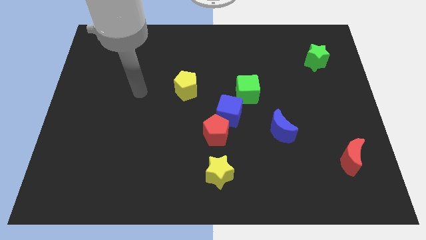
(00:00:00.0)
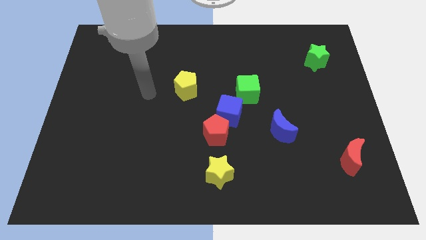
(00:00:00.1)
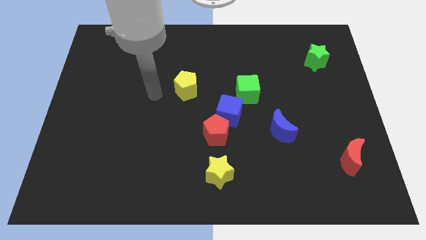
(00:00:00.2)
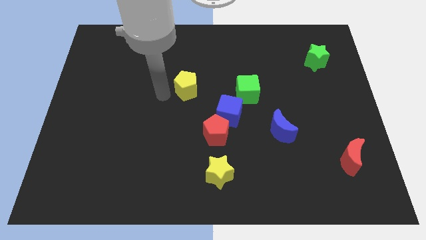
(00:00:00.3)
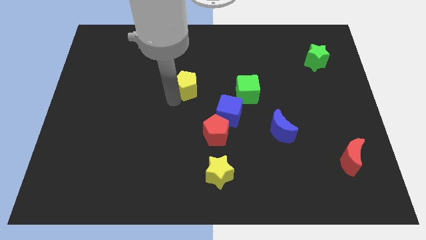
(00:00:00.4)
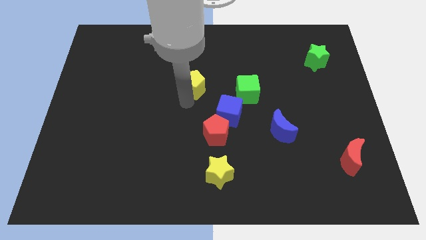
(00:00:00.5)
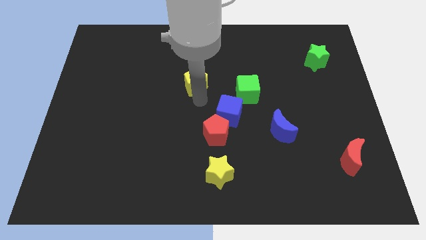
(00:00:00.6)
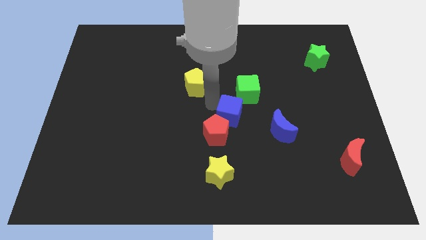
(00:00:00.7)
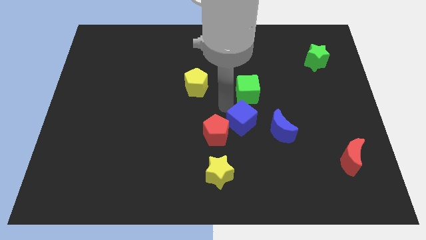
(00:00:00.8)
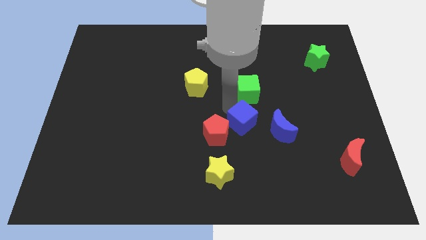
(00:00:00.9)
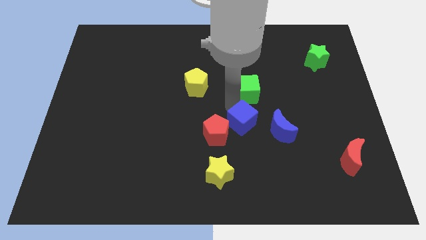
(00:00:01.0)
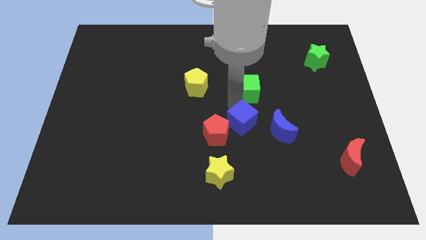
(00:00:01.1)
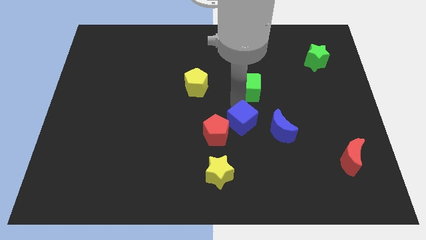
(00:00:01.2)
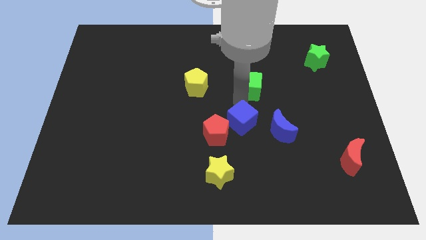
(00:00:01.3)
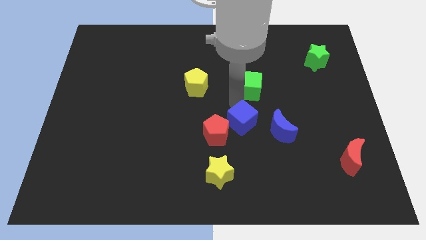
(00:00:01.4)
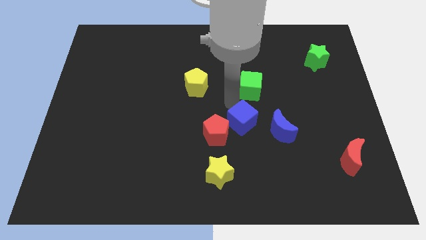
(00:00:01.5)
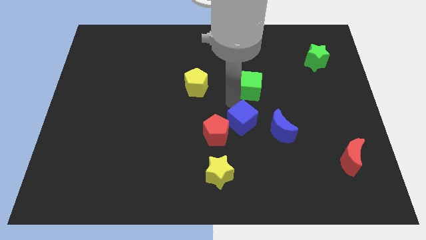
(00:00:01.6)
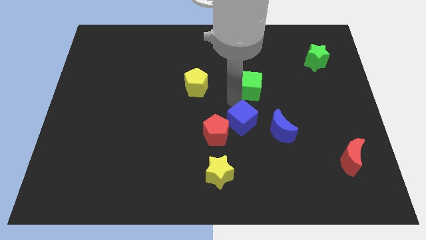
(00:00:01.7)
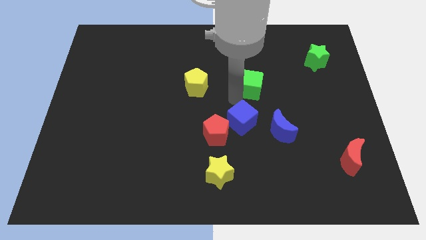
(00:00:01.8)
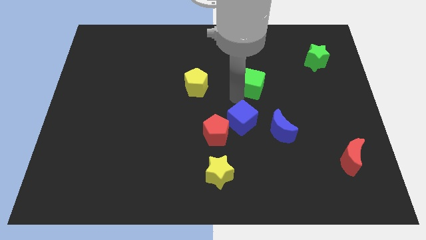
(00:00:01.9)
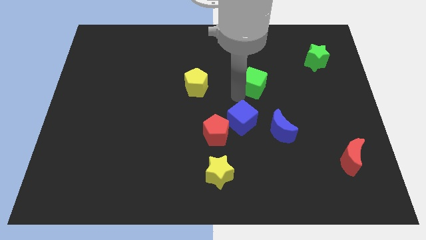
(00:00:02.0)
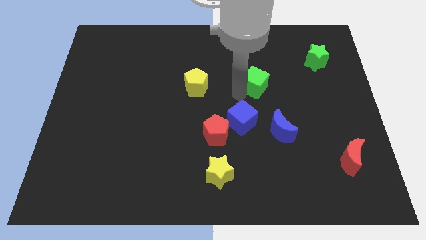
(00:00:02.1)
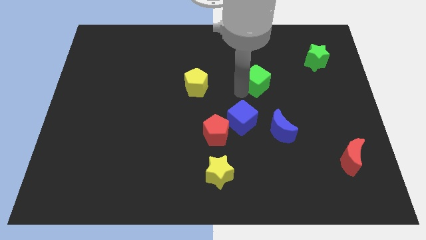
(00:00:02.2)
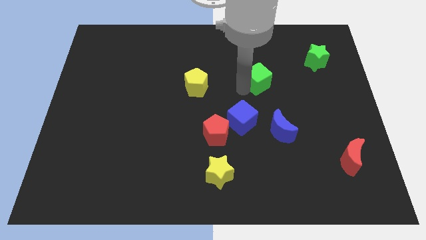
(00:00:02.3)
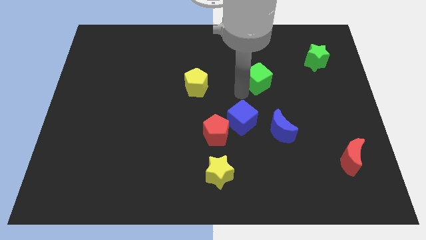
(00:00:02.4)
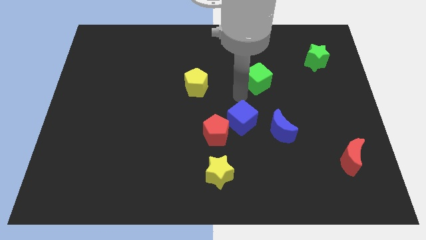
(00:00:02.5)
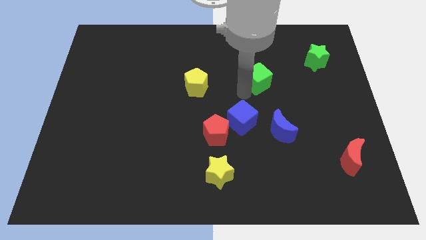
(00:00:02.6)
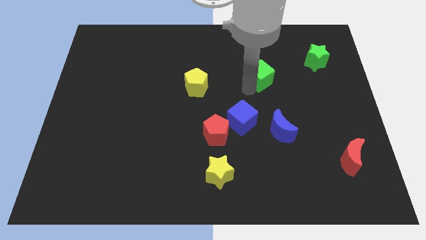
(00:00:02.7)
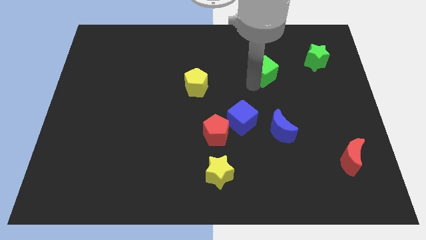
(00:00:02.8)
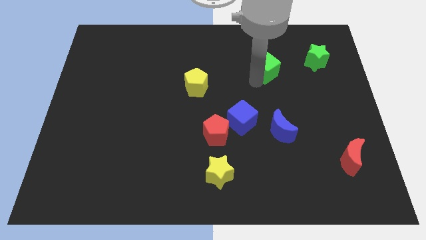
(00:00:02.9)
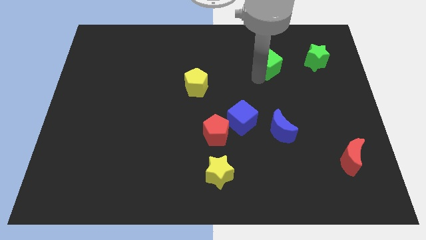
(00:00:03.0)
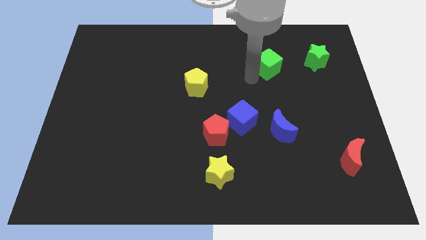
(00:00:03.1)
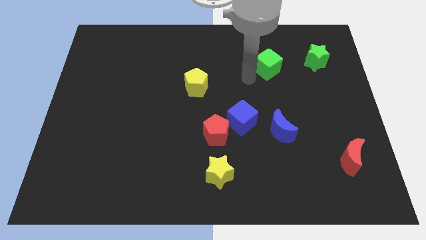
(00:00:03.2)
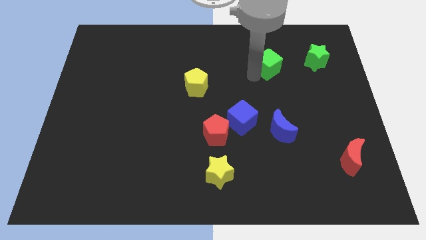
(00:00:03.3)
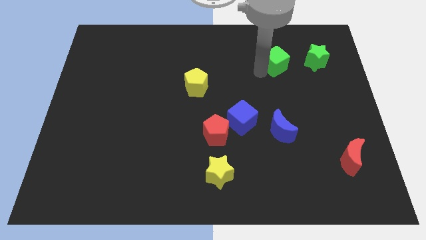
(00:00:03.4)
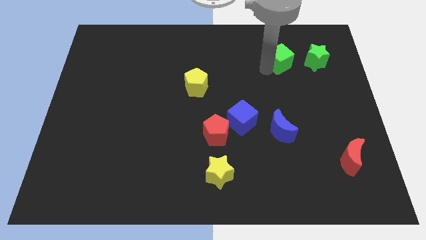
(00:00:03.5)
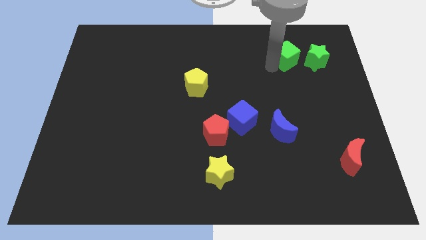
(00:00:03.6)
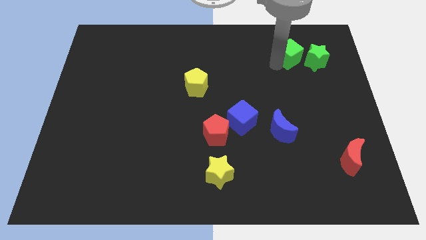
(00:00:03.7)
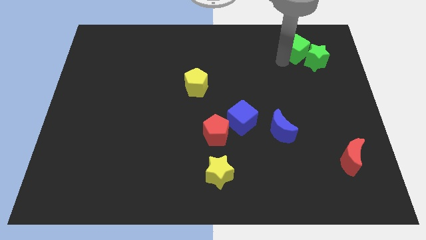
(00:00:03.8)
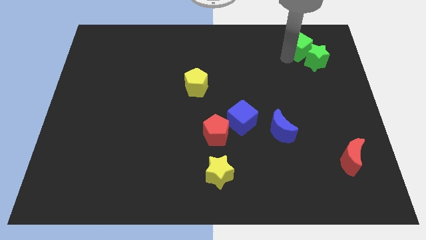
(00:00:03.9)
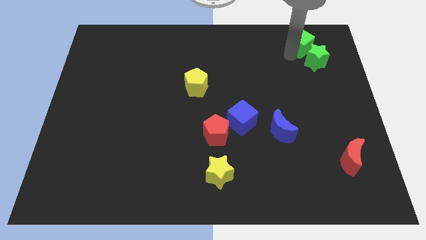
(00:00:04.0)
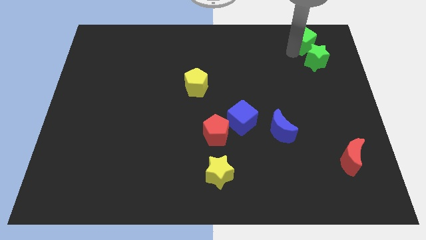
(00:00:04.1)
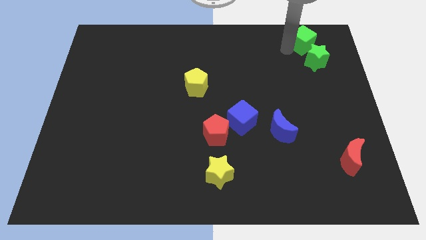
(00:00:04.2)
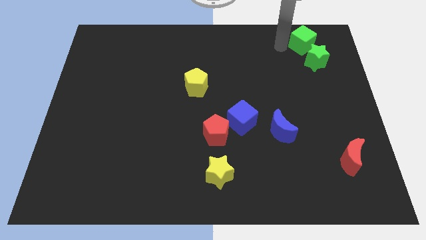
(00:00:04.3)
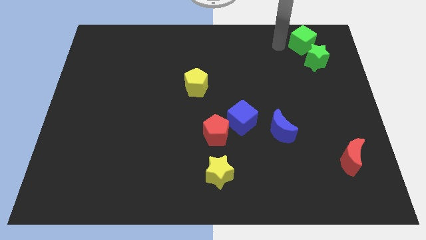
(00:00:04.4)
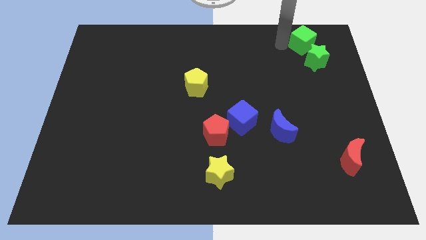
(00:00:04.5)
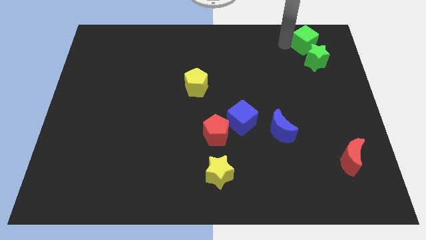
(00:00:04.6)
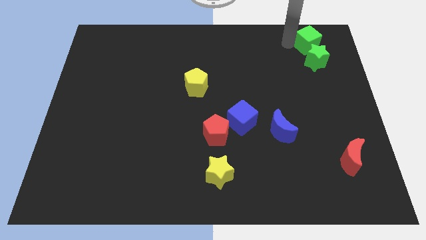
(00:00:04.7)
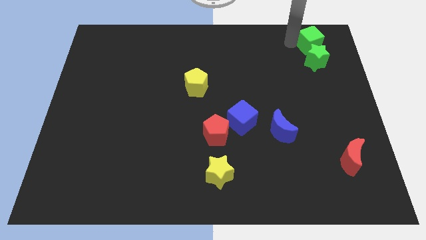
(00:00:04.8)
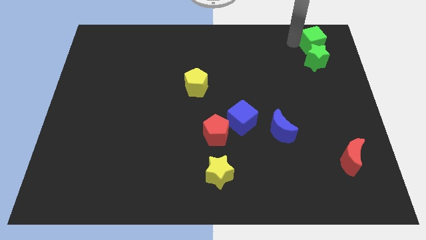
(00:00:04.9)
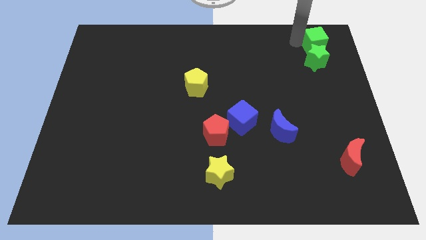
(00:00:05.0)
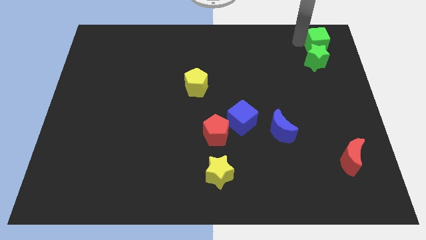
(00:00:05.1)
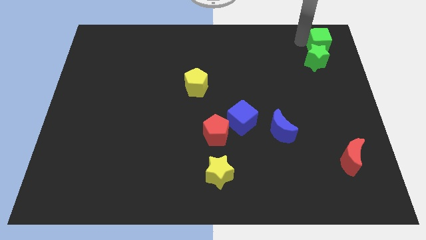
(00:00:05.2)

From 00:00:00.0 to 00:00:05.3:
put the green cube to the top right of the board

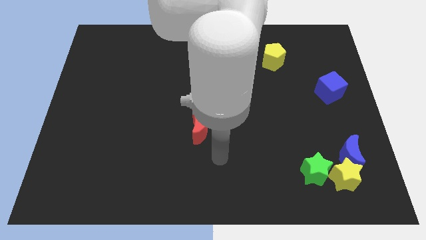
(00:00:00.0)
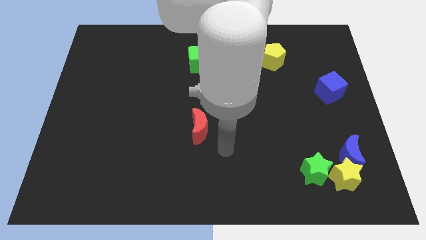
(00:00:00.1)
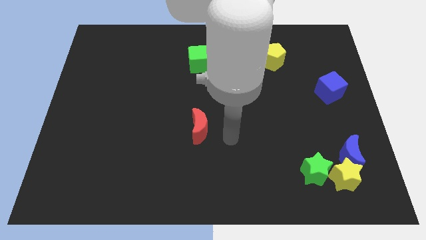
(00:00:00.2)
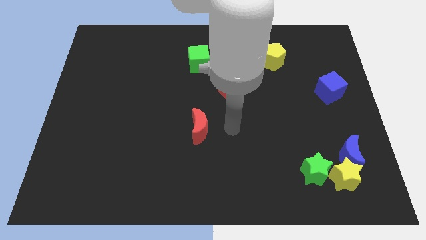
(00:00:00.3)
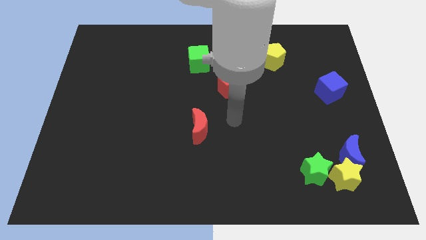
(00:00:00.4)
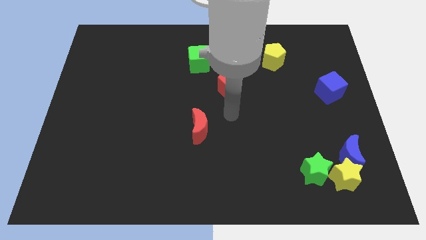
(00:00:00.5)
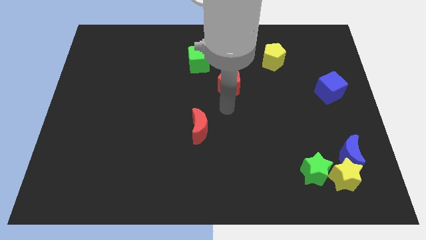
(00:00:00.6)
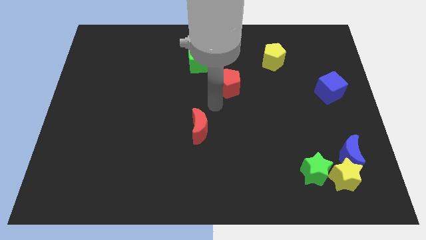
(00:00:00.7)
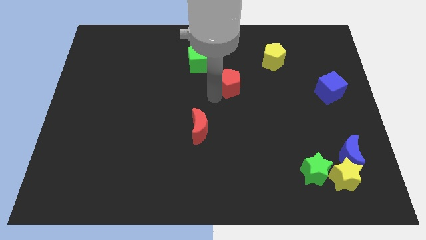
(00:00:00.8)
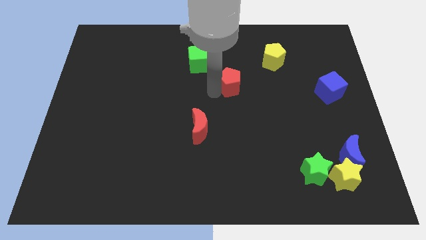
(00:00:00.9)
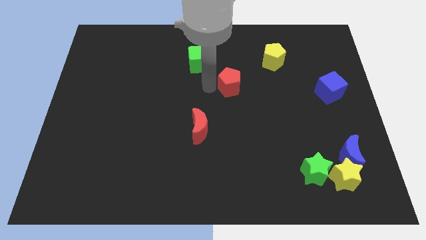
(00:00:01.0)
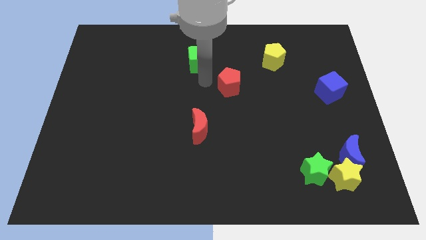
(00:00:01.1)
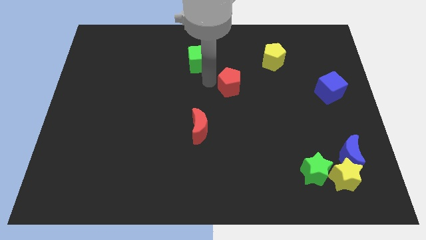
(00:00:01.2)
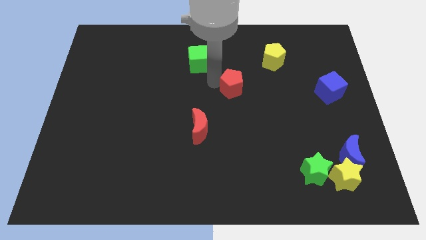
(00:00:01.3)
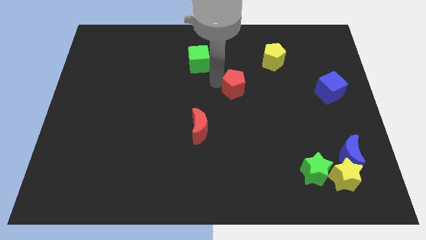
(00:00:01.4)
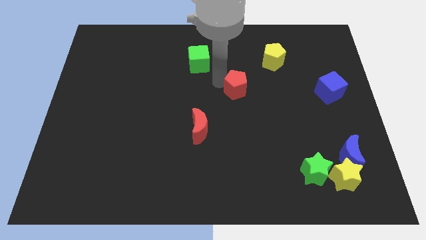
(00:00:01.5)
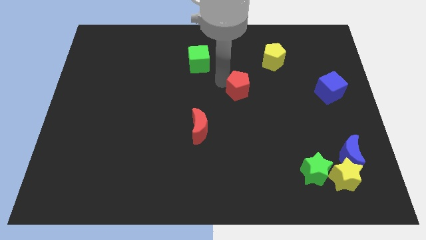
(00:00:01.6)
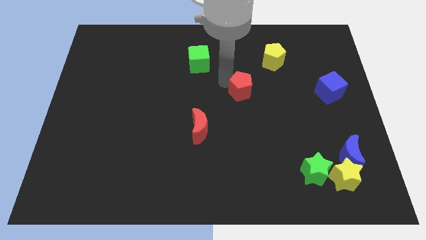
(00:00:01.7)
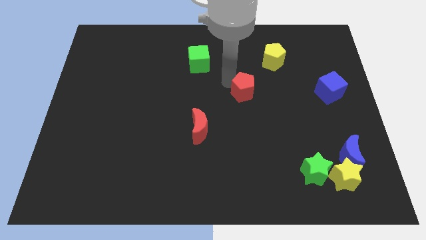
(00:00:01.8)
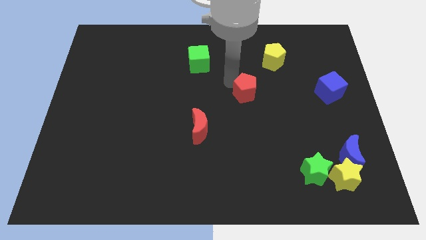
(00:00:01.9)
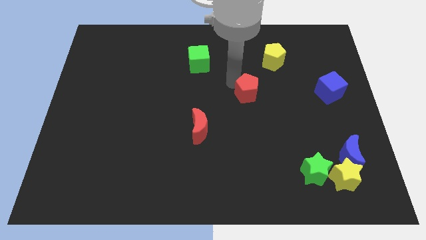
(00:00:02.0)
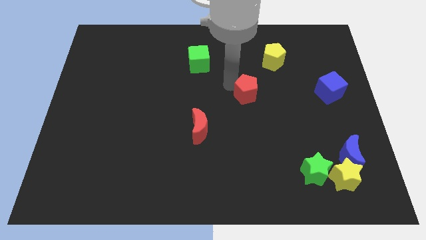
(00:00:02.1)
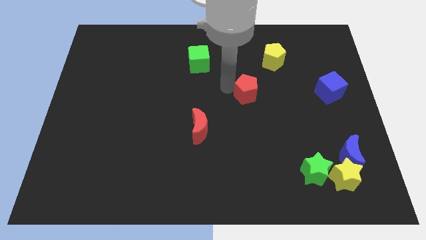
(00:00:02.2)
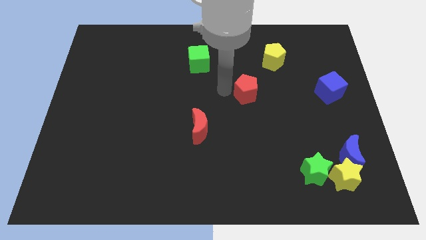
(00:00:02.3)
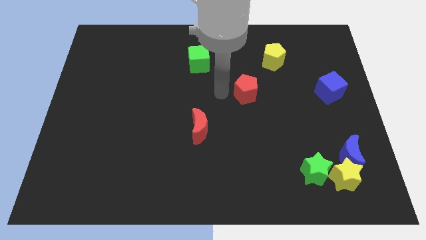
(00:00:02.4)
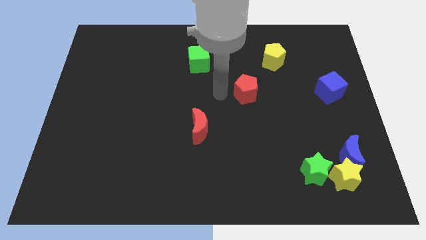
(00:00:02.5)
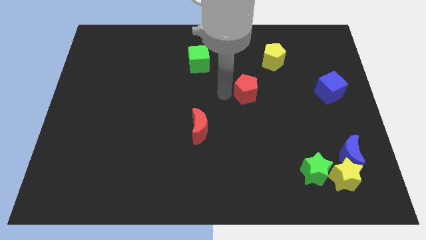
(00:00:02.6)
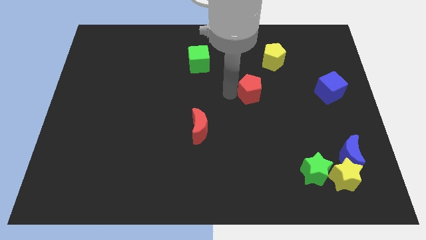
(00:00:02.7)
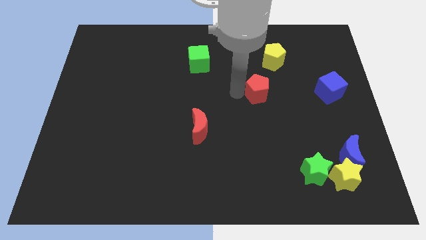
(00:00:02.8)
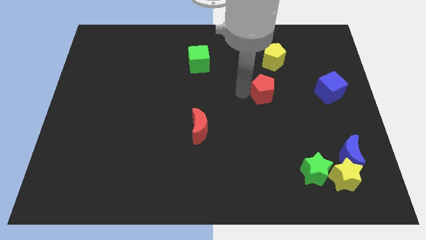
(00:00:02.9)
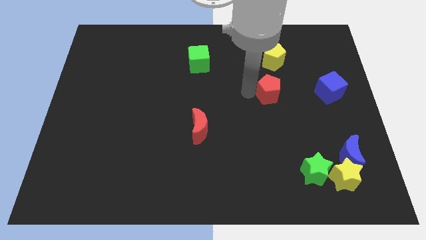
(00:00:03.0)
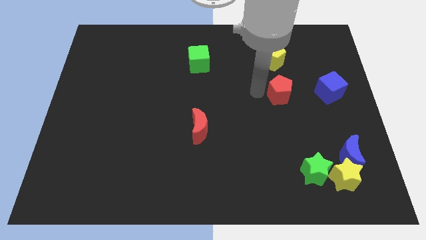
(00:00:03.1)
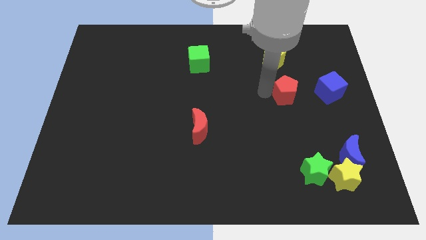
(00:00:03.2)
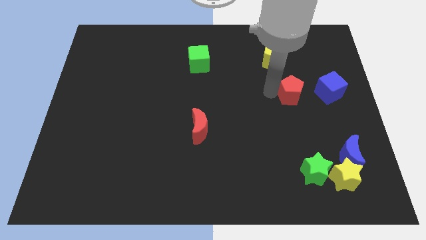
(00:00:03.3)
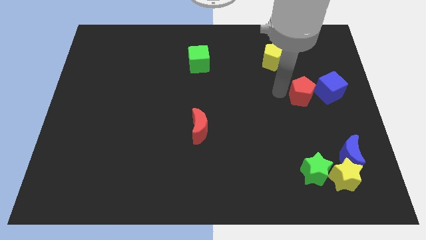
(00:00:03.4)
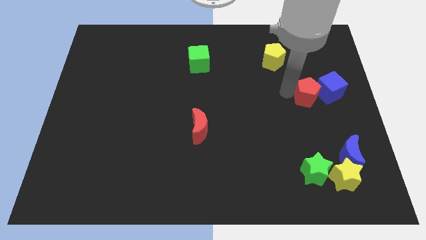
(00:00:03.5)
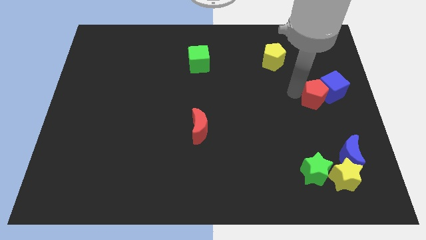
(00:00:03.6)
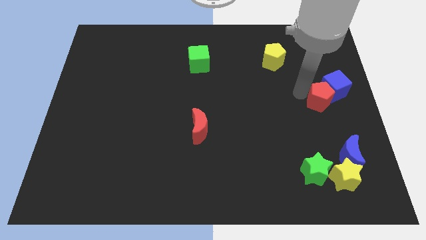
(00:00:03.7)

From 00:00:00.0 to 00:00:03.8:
slide the red pentagon to the right side of the board
